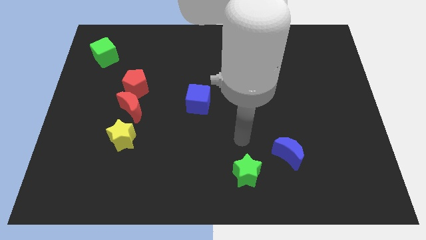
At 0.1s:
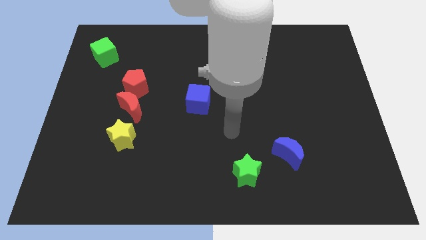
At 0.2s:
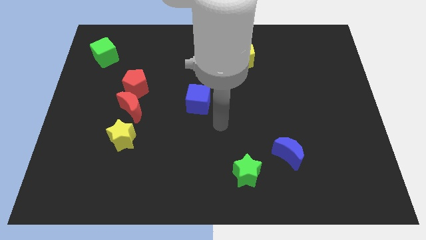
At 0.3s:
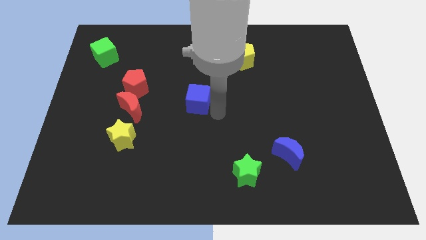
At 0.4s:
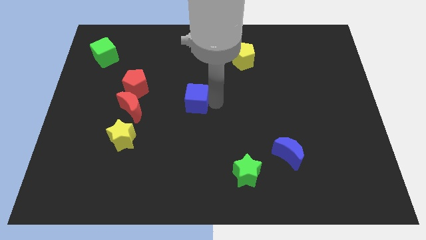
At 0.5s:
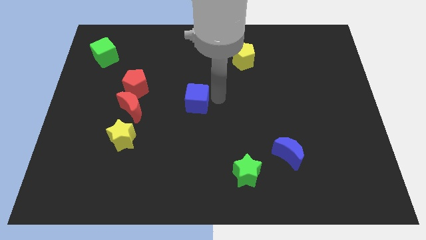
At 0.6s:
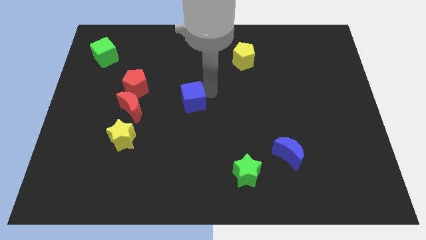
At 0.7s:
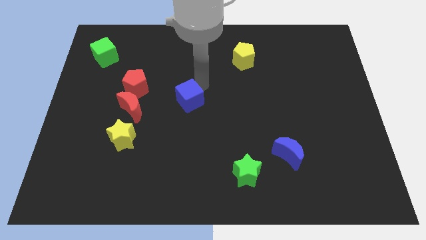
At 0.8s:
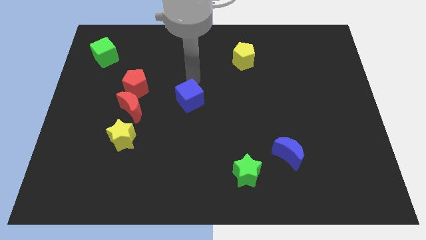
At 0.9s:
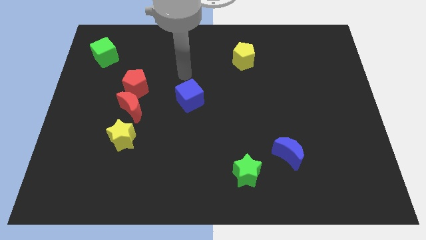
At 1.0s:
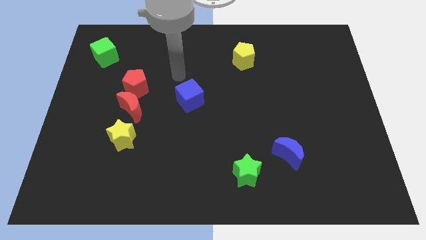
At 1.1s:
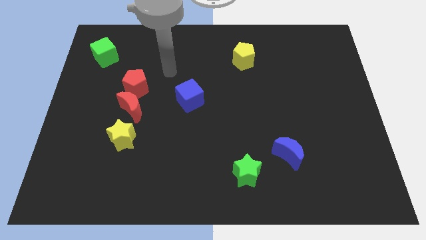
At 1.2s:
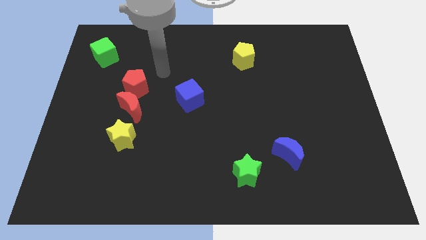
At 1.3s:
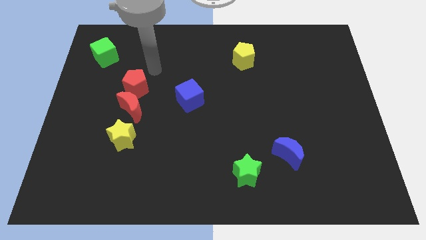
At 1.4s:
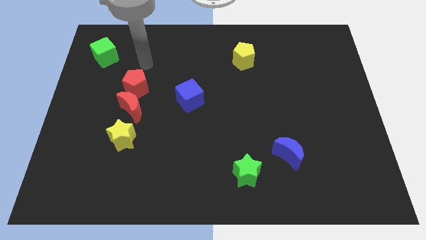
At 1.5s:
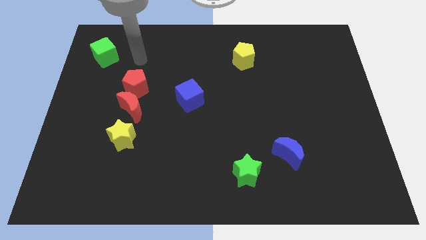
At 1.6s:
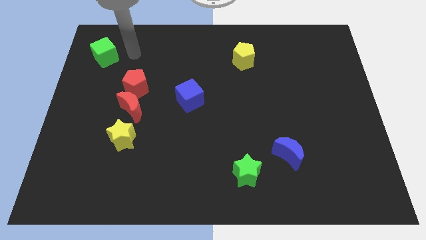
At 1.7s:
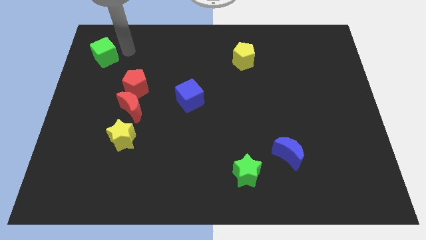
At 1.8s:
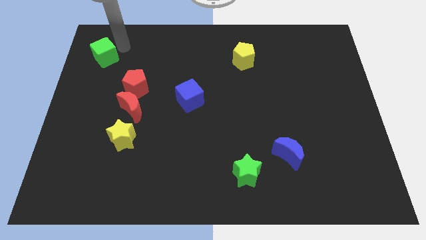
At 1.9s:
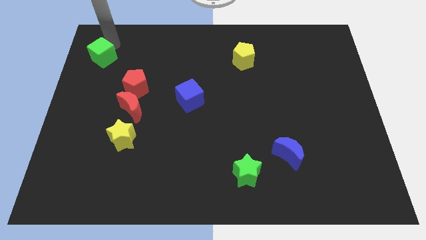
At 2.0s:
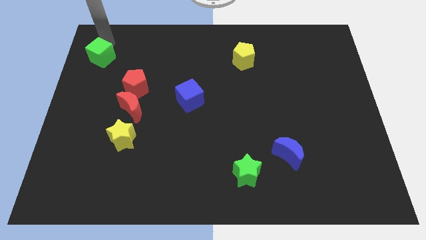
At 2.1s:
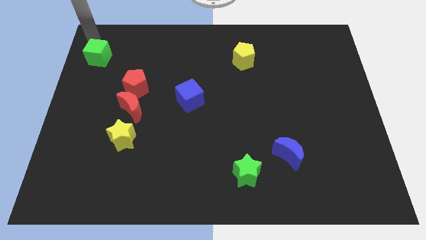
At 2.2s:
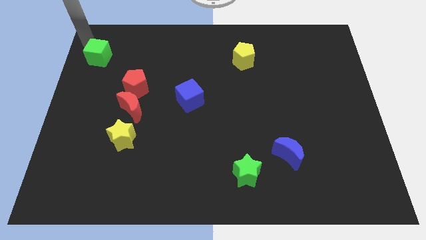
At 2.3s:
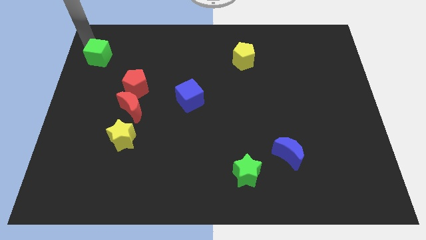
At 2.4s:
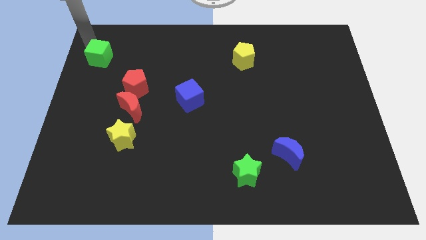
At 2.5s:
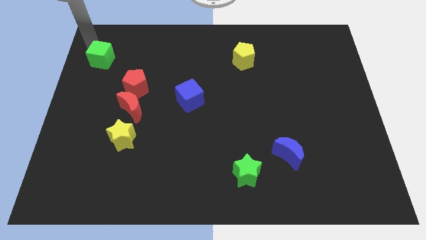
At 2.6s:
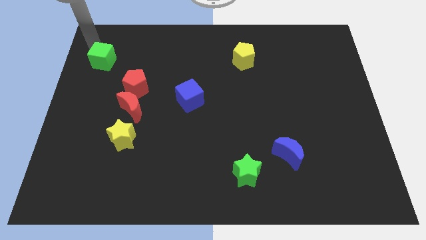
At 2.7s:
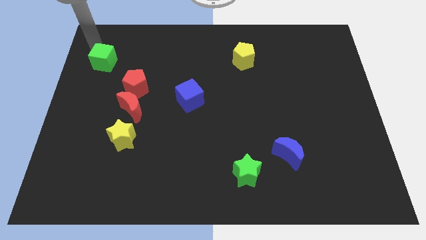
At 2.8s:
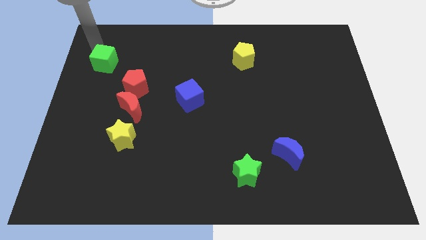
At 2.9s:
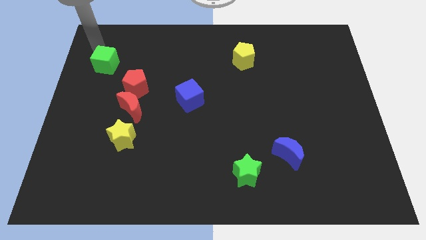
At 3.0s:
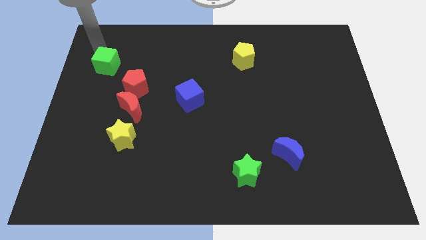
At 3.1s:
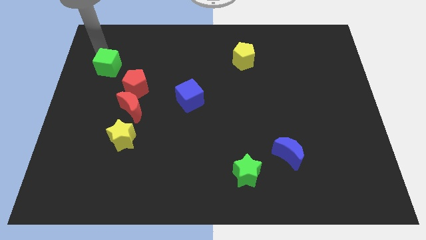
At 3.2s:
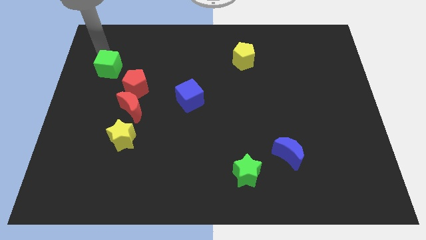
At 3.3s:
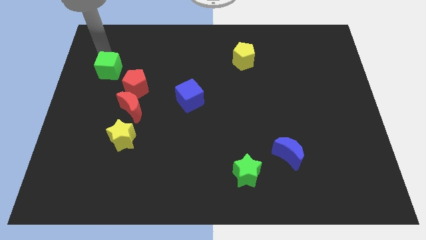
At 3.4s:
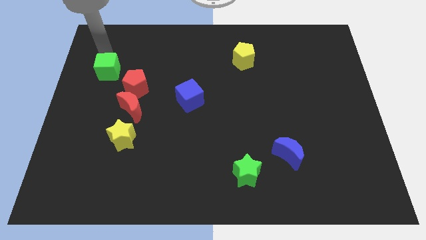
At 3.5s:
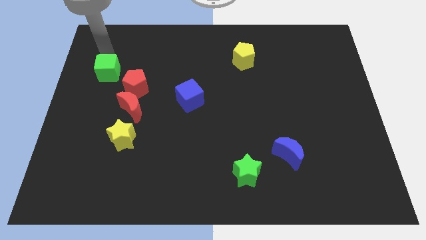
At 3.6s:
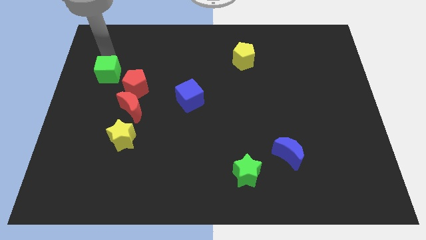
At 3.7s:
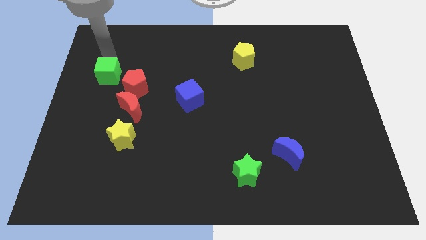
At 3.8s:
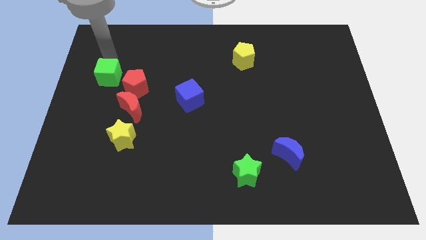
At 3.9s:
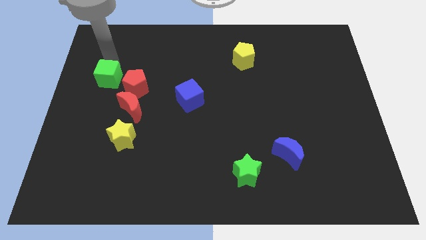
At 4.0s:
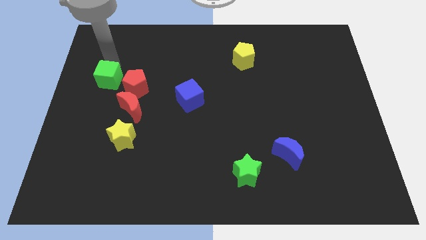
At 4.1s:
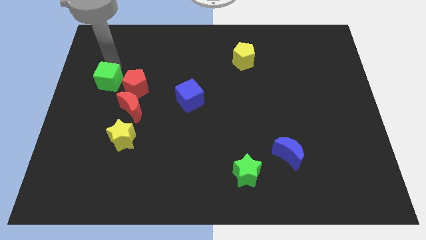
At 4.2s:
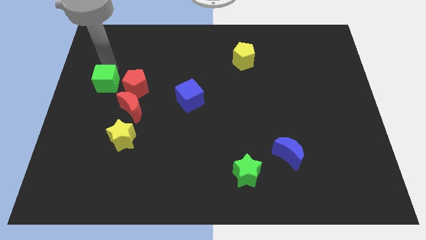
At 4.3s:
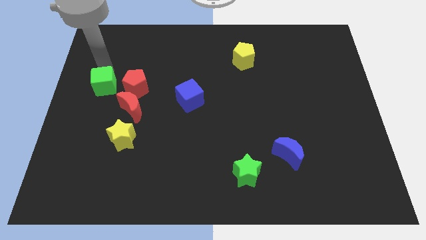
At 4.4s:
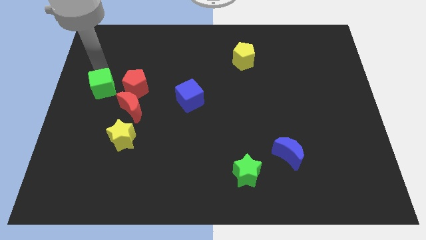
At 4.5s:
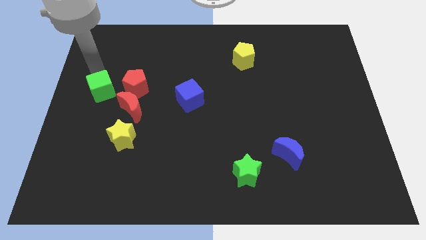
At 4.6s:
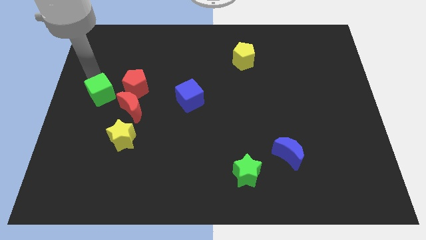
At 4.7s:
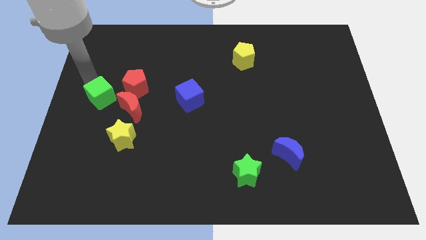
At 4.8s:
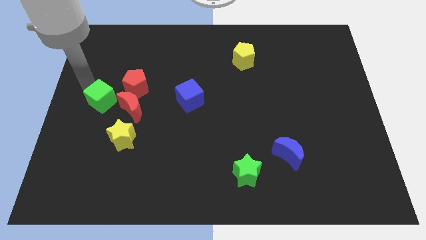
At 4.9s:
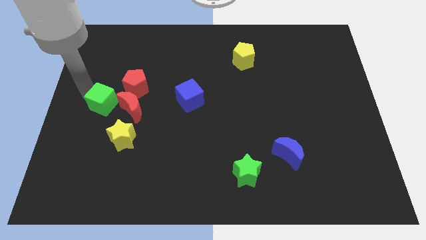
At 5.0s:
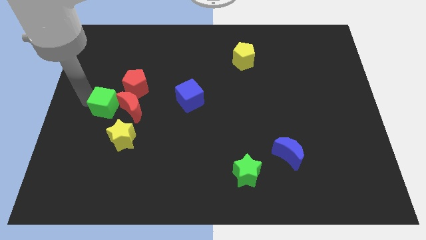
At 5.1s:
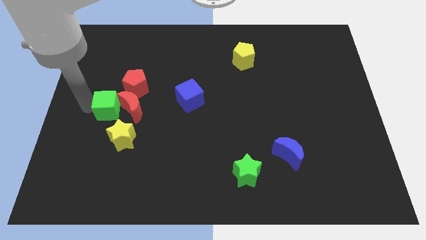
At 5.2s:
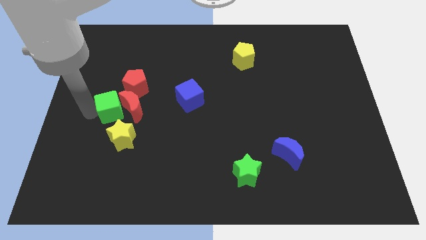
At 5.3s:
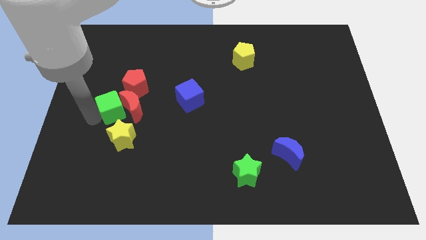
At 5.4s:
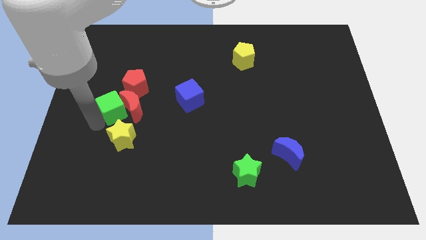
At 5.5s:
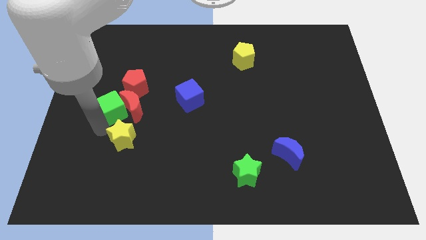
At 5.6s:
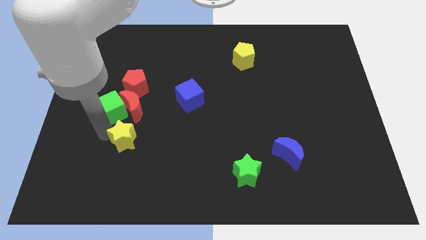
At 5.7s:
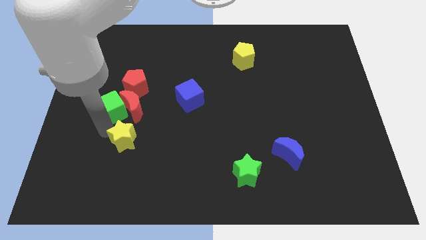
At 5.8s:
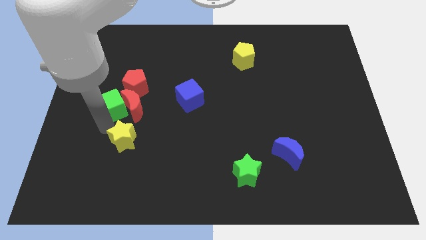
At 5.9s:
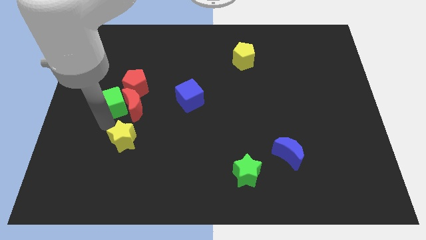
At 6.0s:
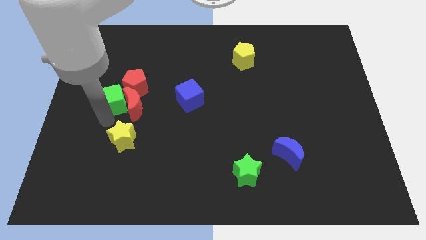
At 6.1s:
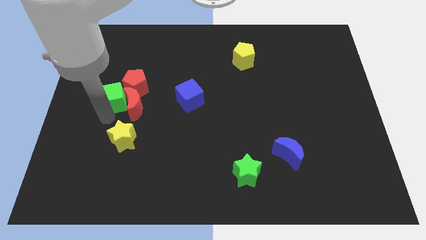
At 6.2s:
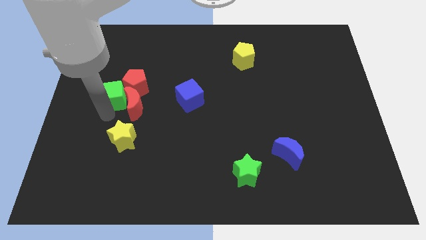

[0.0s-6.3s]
slide the green cube towards the red pentagon
